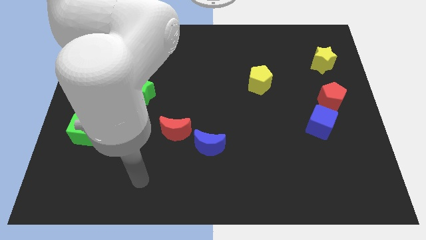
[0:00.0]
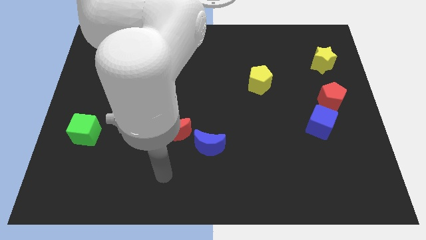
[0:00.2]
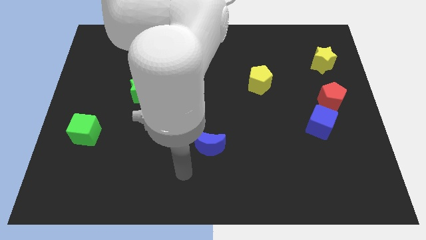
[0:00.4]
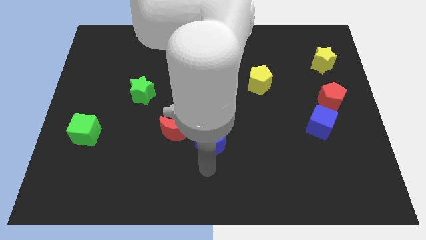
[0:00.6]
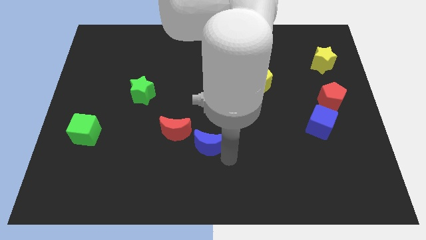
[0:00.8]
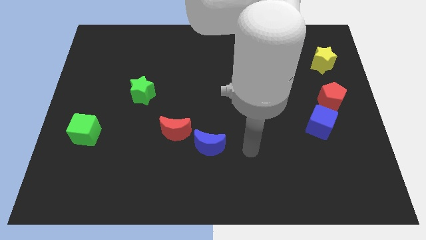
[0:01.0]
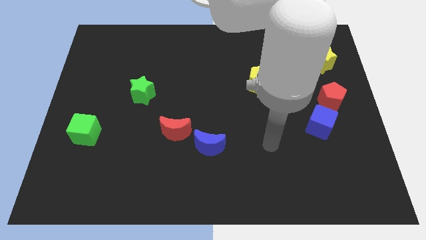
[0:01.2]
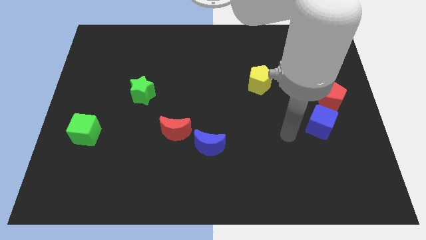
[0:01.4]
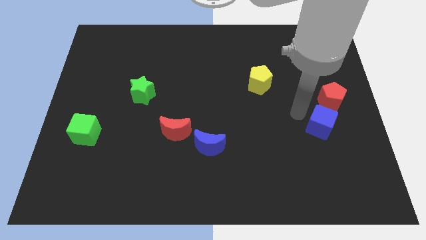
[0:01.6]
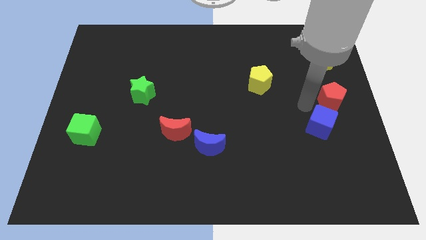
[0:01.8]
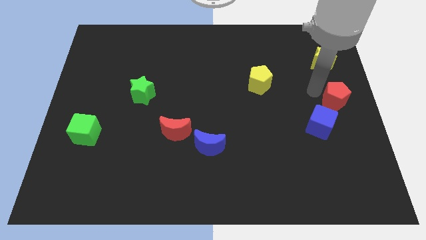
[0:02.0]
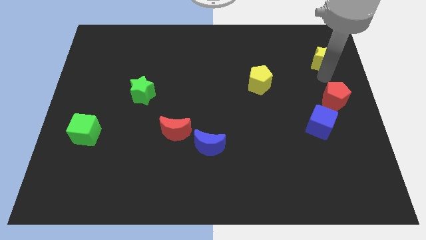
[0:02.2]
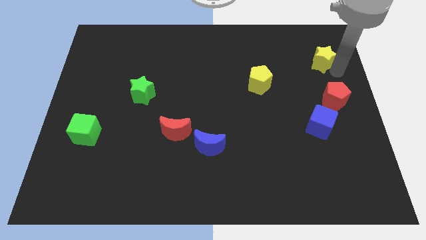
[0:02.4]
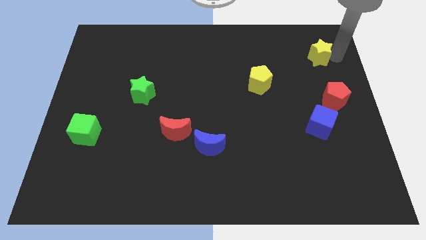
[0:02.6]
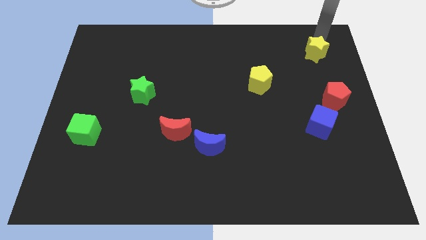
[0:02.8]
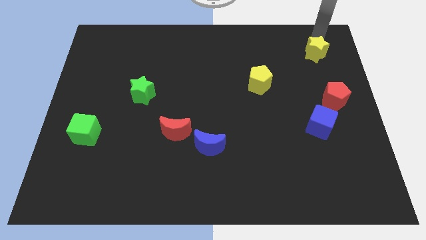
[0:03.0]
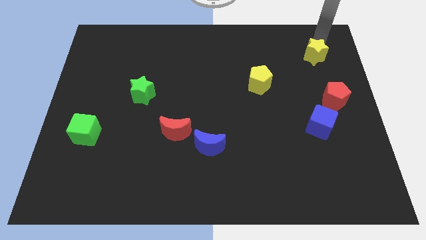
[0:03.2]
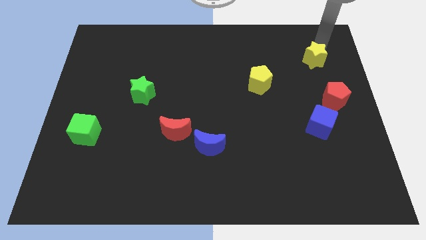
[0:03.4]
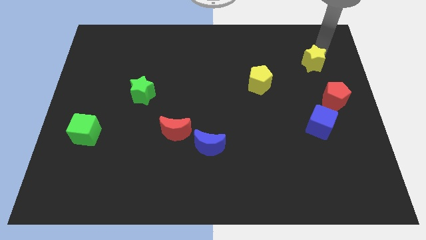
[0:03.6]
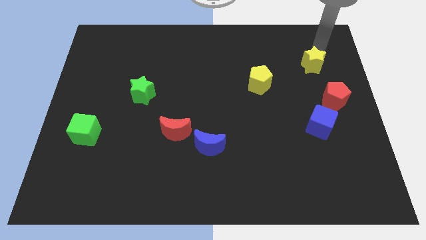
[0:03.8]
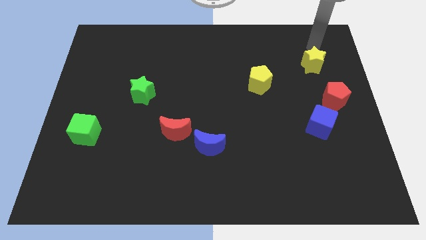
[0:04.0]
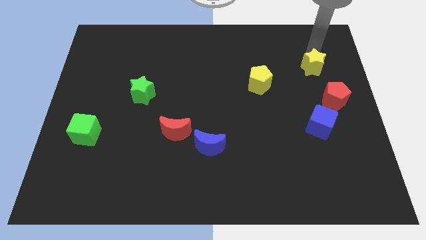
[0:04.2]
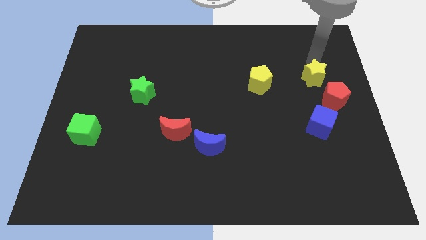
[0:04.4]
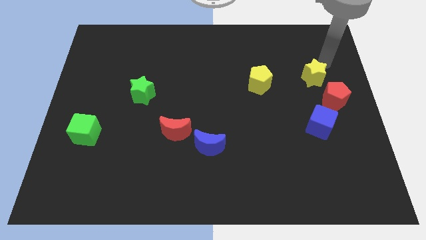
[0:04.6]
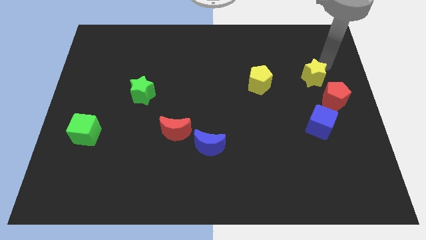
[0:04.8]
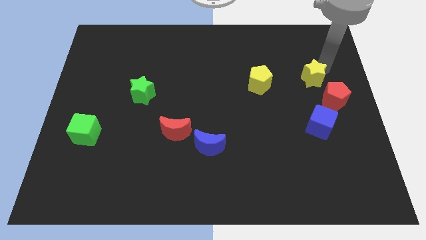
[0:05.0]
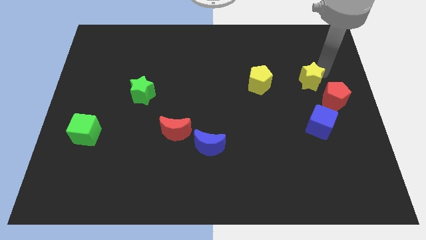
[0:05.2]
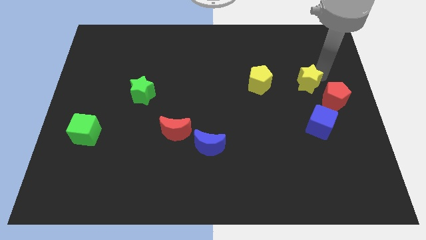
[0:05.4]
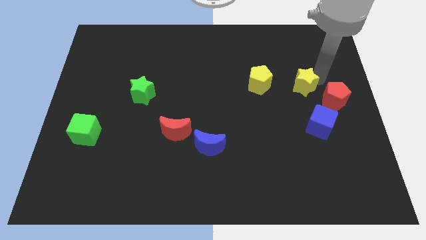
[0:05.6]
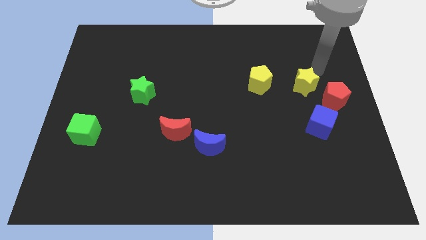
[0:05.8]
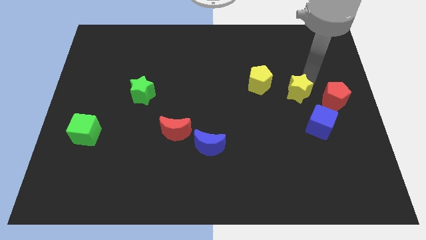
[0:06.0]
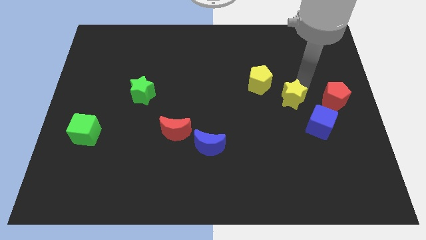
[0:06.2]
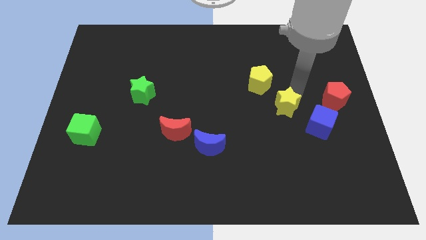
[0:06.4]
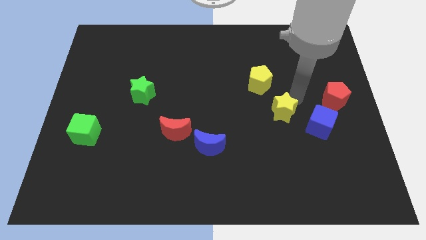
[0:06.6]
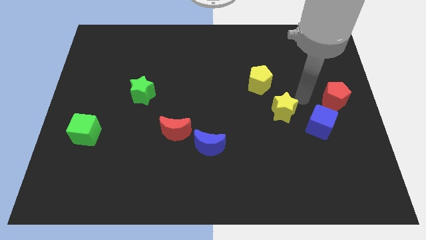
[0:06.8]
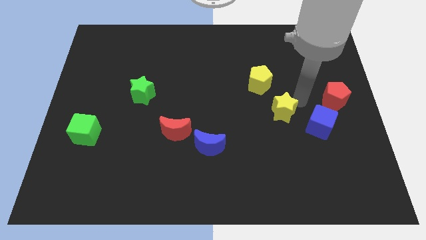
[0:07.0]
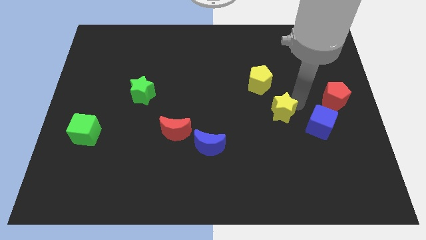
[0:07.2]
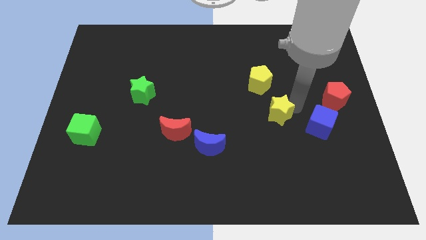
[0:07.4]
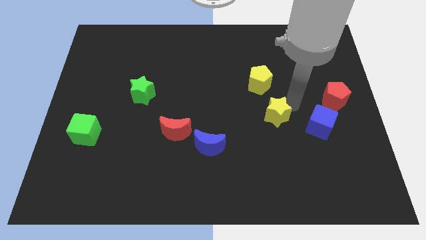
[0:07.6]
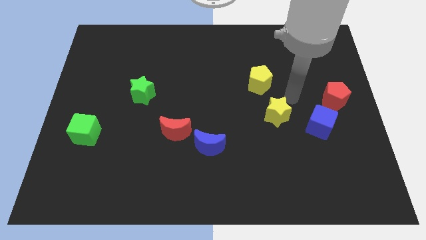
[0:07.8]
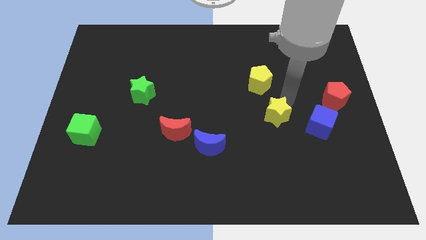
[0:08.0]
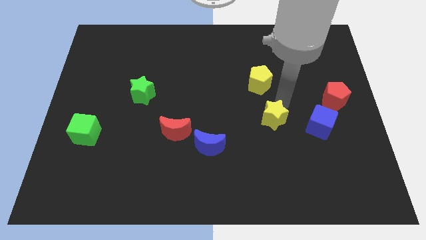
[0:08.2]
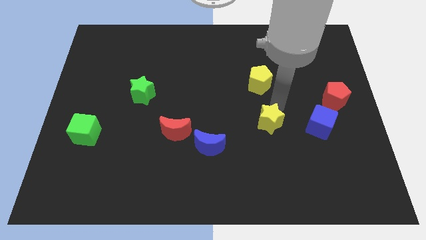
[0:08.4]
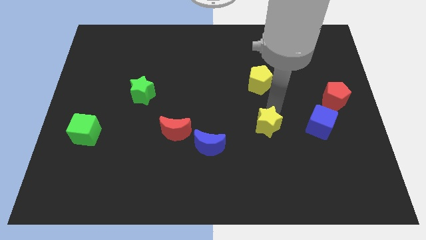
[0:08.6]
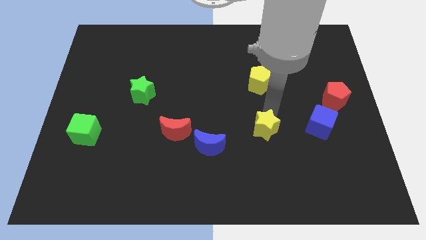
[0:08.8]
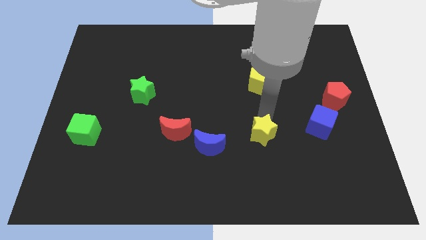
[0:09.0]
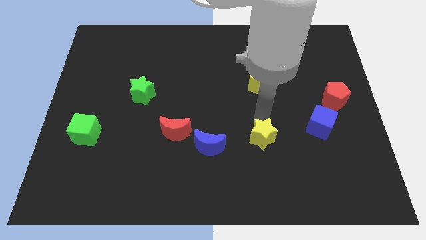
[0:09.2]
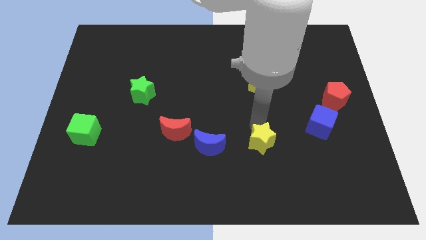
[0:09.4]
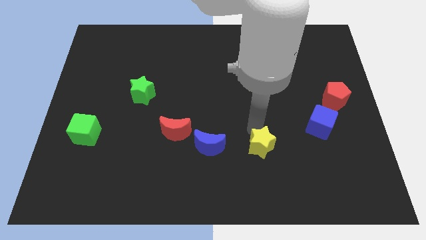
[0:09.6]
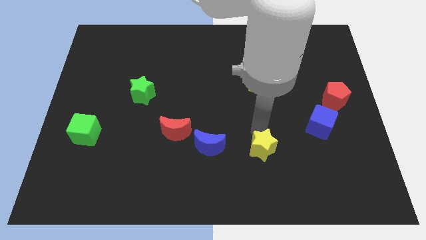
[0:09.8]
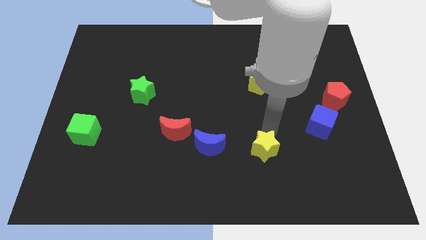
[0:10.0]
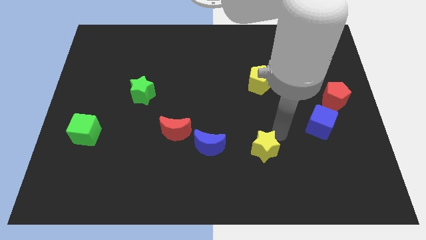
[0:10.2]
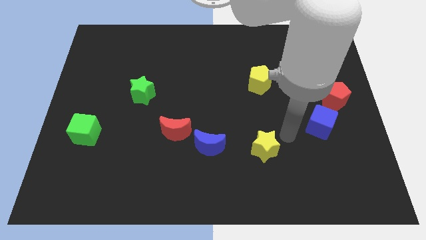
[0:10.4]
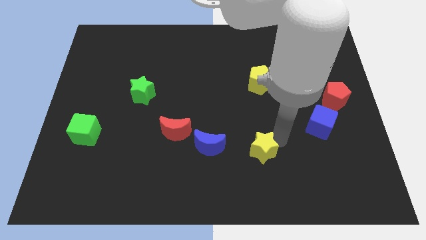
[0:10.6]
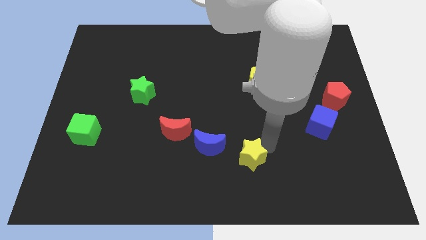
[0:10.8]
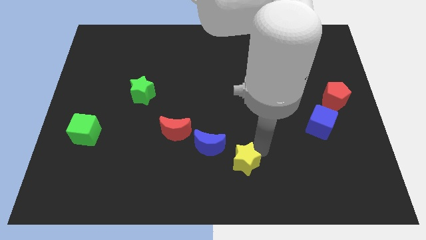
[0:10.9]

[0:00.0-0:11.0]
slide the yellow star to the bottom

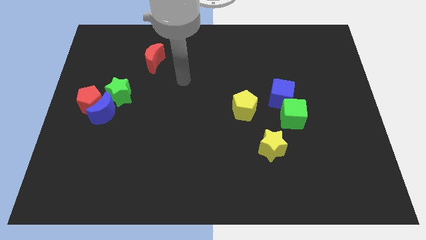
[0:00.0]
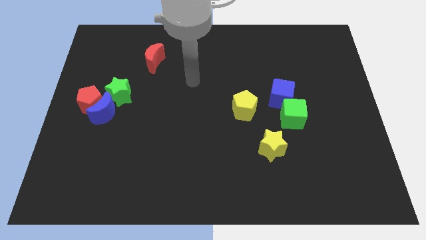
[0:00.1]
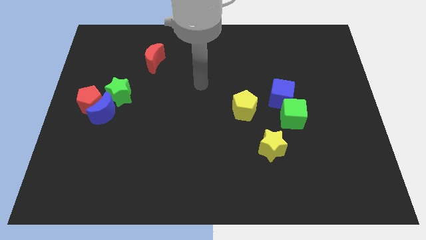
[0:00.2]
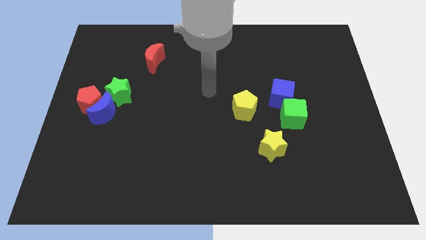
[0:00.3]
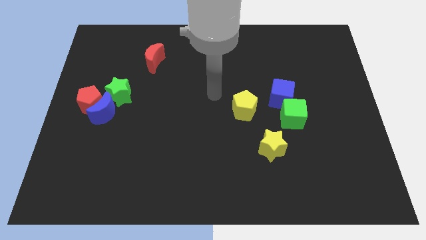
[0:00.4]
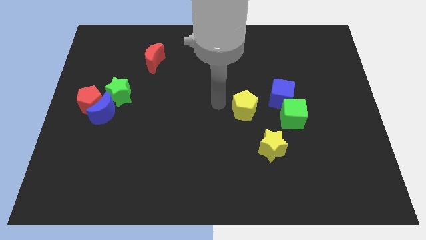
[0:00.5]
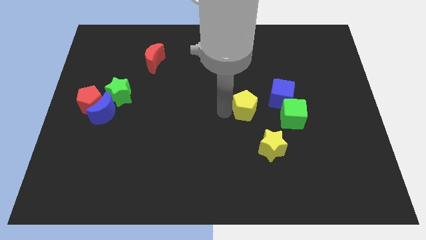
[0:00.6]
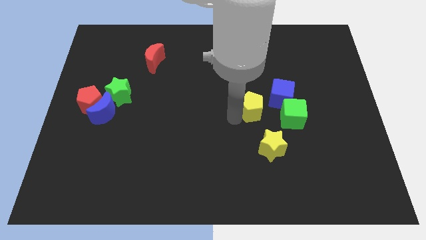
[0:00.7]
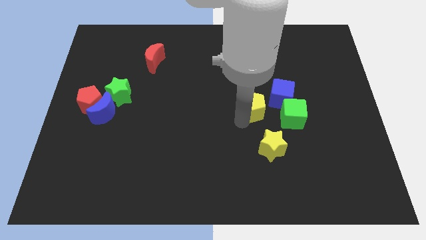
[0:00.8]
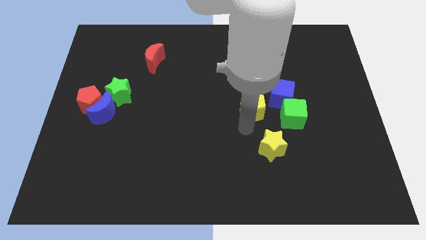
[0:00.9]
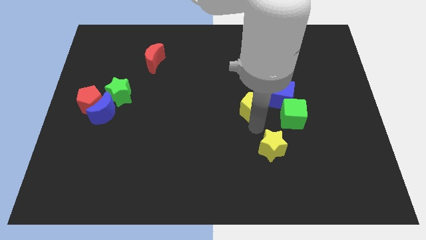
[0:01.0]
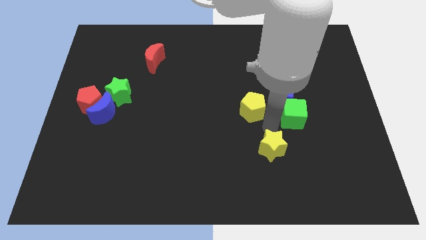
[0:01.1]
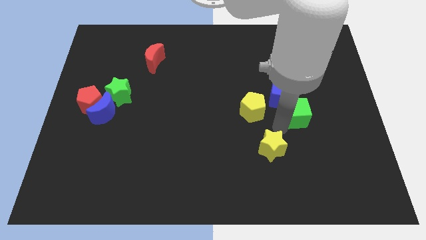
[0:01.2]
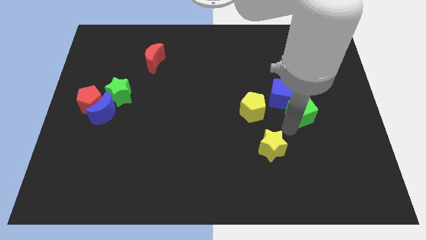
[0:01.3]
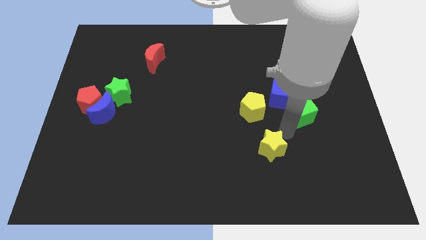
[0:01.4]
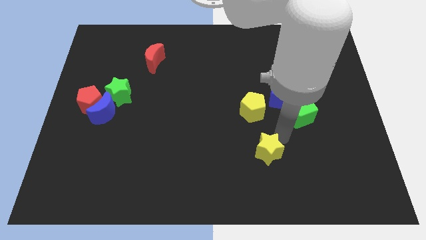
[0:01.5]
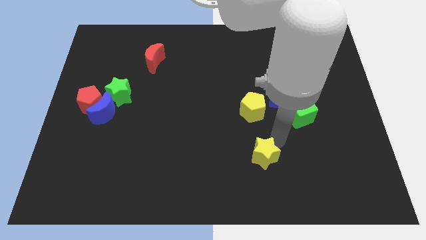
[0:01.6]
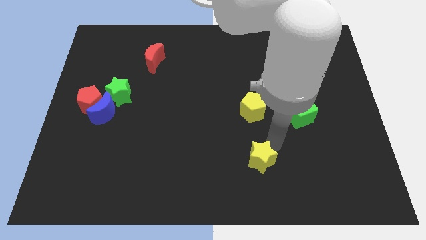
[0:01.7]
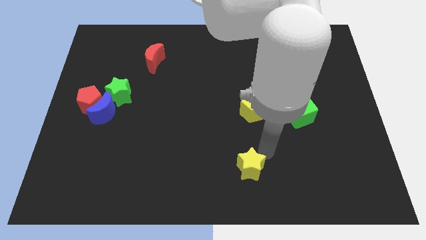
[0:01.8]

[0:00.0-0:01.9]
put the yellow star to the bottom side
